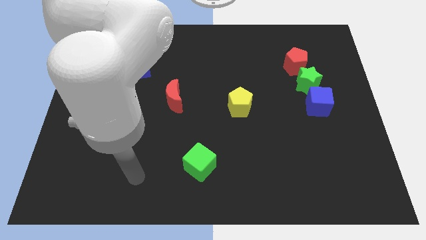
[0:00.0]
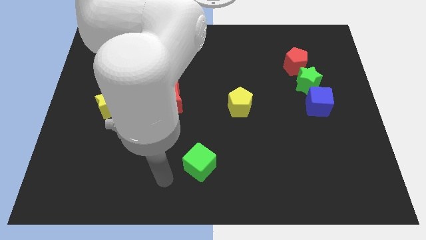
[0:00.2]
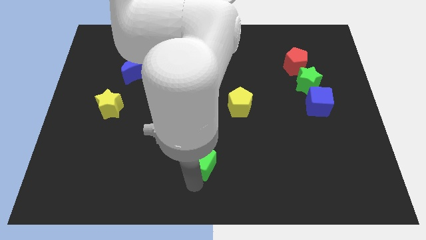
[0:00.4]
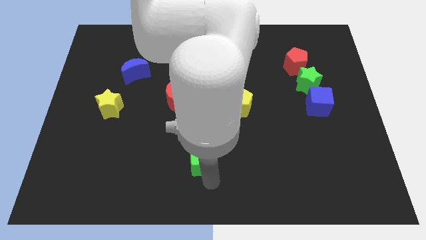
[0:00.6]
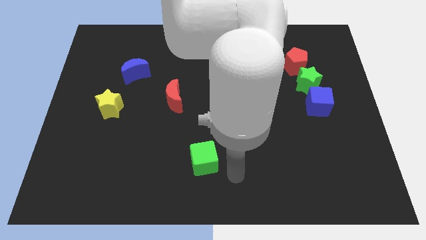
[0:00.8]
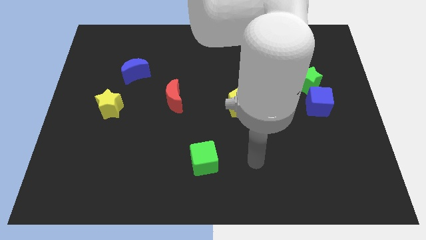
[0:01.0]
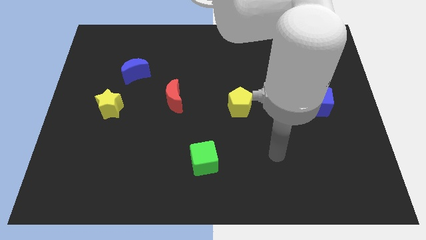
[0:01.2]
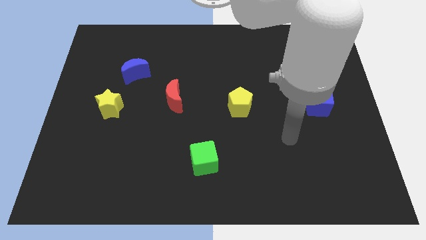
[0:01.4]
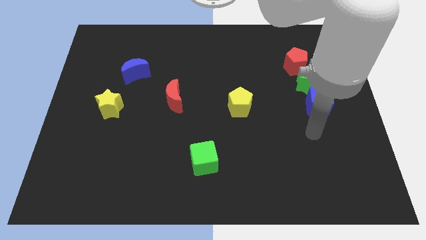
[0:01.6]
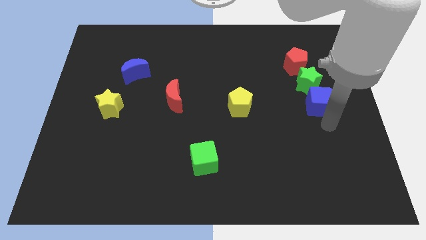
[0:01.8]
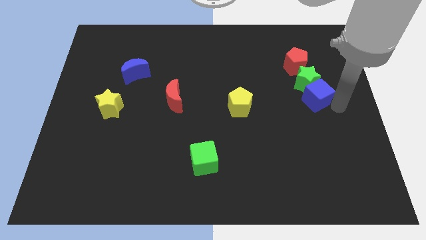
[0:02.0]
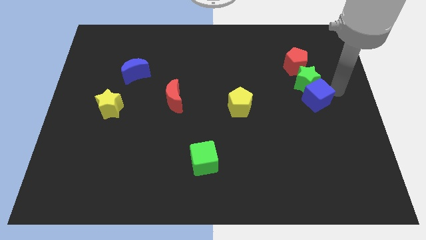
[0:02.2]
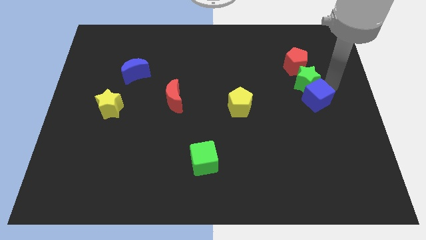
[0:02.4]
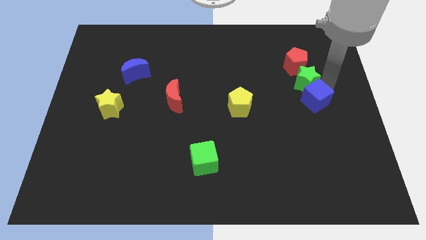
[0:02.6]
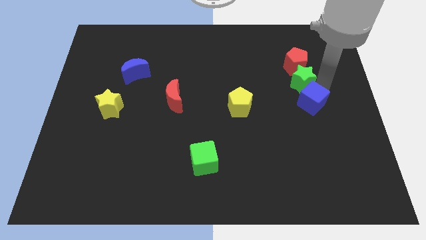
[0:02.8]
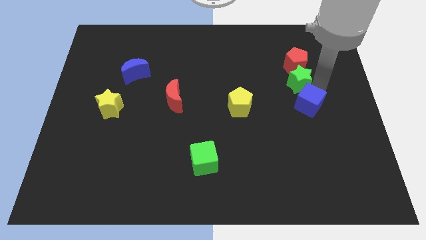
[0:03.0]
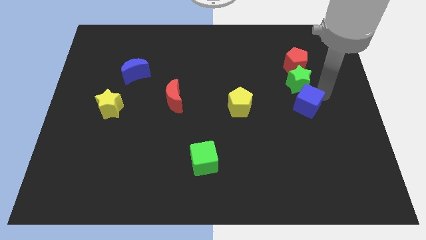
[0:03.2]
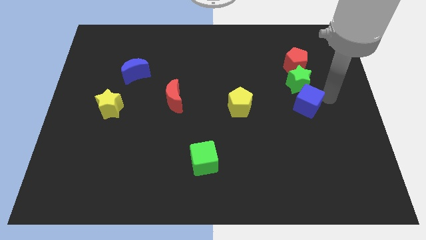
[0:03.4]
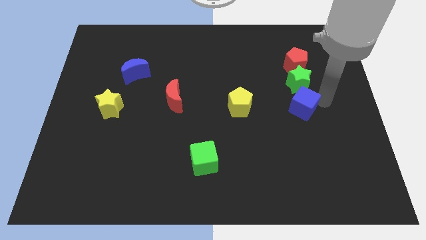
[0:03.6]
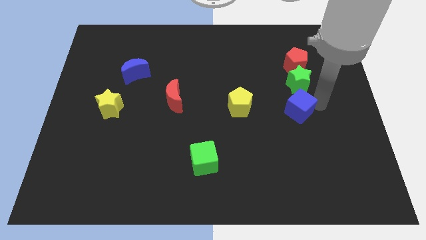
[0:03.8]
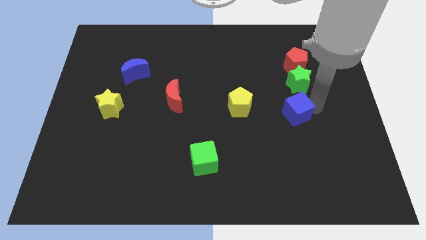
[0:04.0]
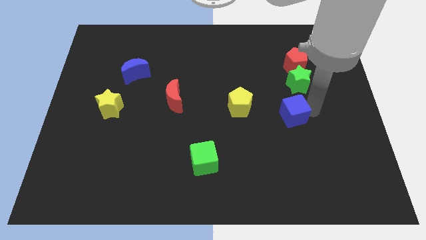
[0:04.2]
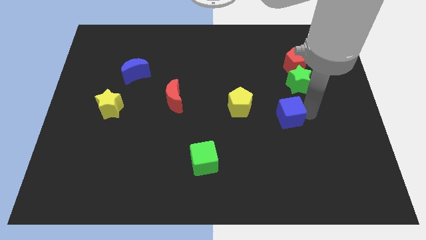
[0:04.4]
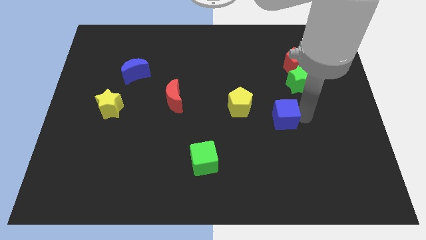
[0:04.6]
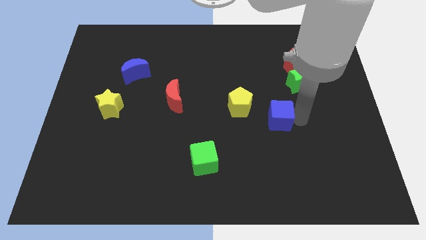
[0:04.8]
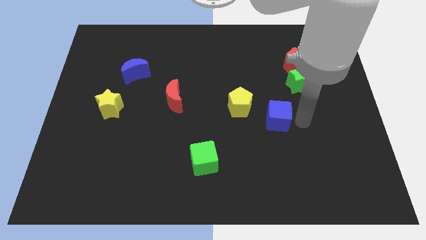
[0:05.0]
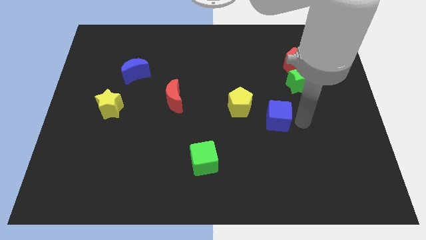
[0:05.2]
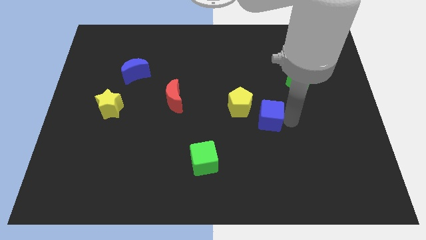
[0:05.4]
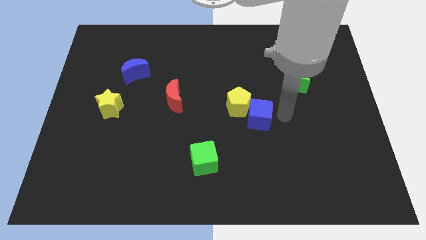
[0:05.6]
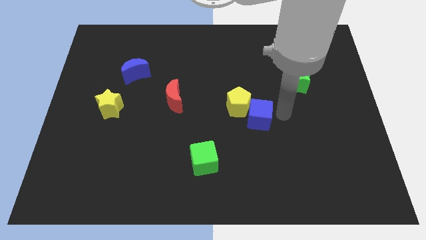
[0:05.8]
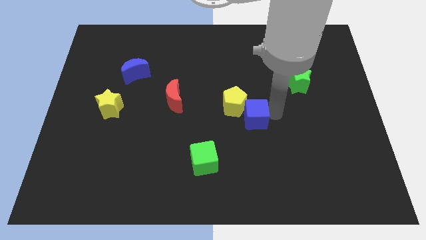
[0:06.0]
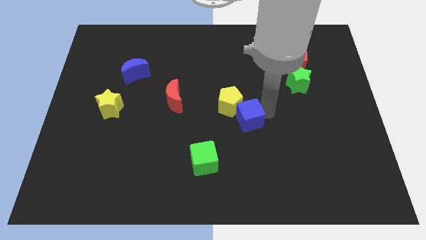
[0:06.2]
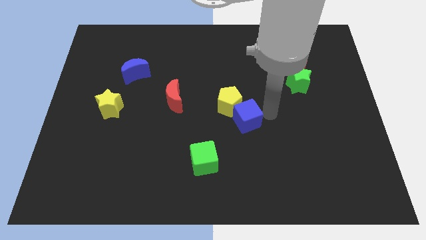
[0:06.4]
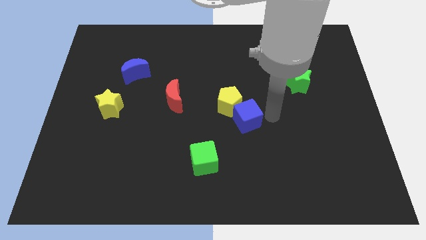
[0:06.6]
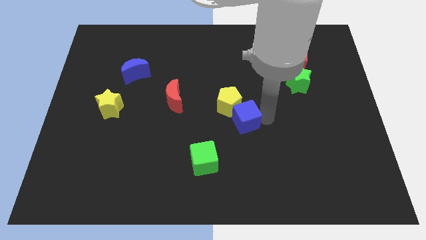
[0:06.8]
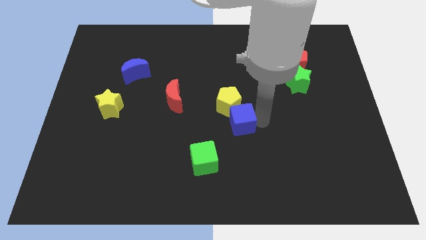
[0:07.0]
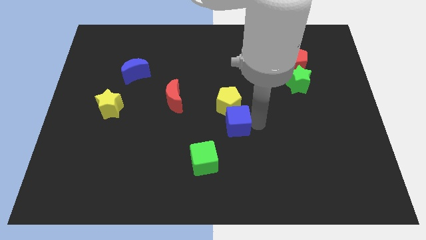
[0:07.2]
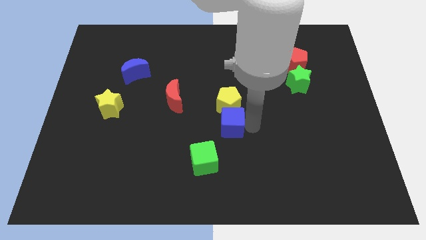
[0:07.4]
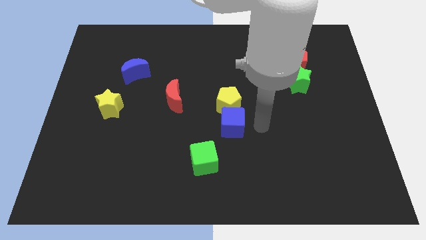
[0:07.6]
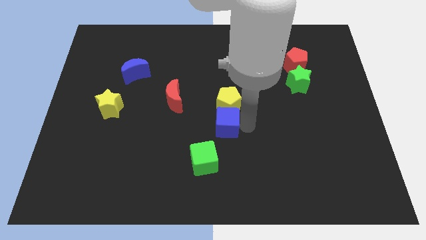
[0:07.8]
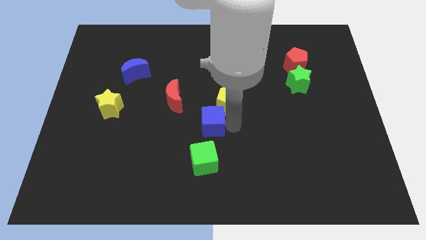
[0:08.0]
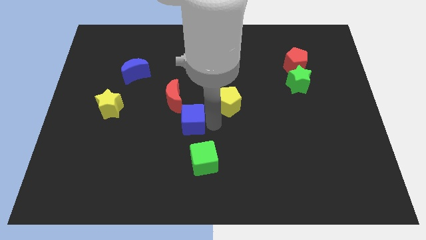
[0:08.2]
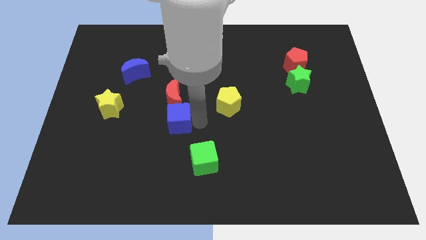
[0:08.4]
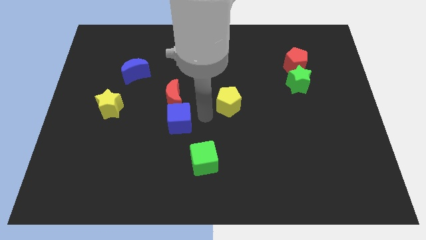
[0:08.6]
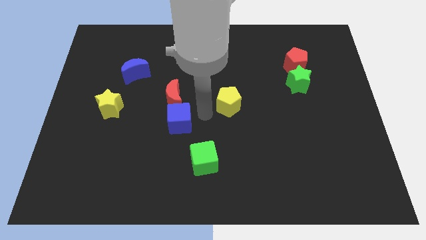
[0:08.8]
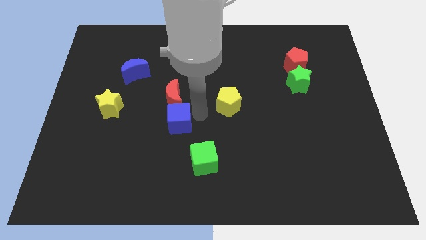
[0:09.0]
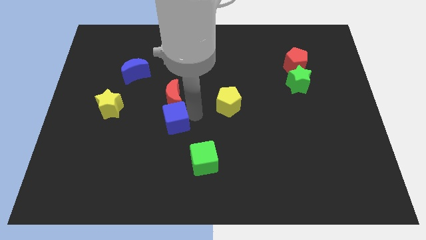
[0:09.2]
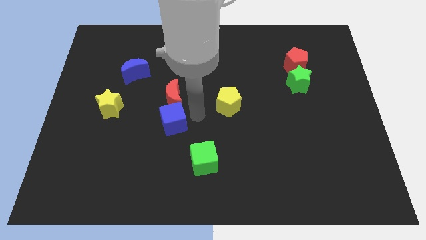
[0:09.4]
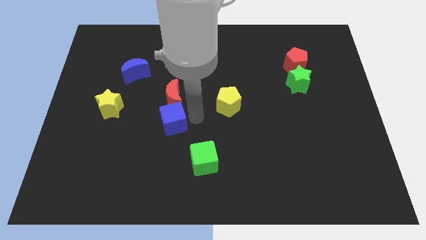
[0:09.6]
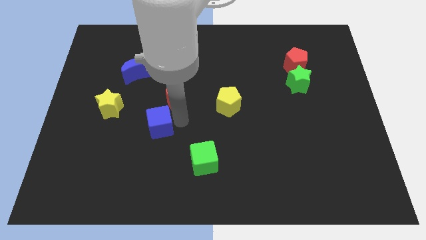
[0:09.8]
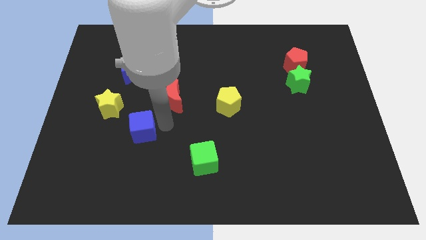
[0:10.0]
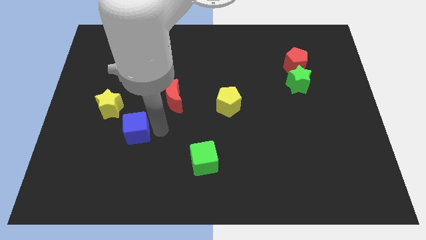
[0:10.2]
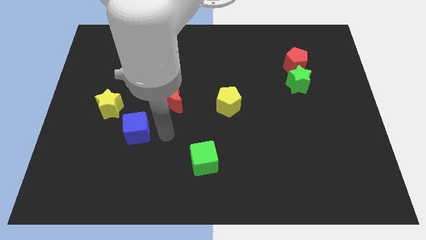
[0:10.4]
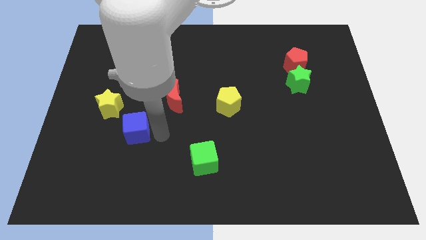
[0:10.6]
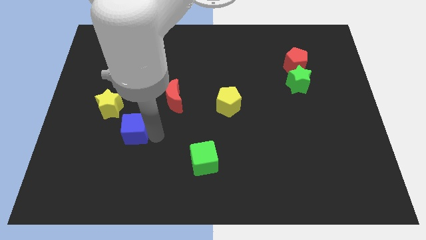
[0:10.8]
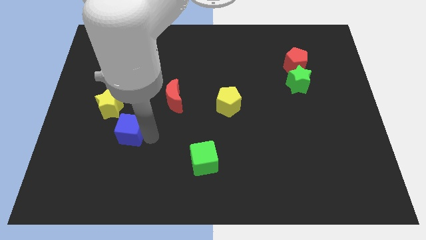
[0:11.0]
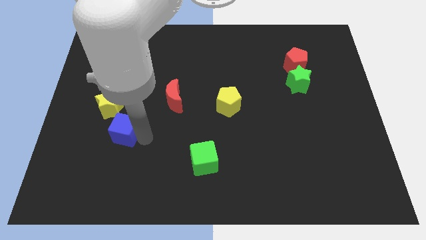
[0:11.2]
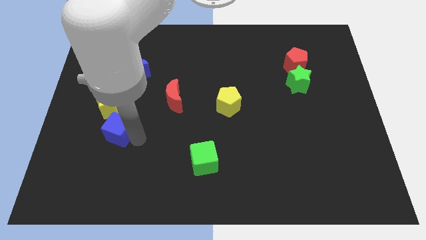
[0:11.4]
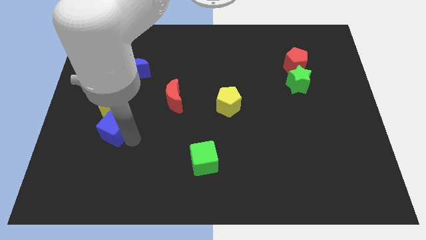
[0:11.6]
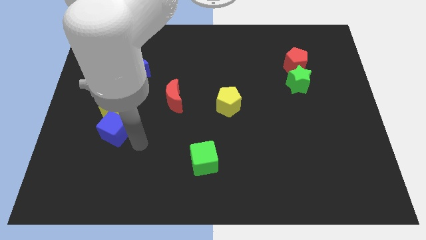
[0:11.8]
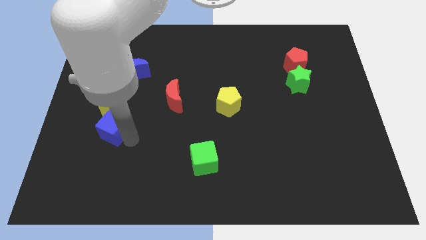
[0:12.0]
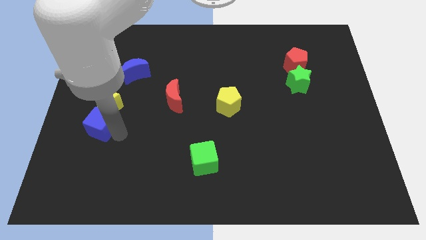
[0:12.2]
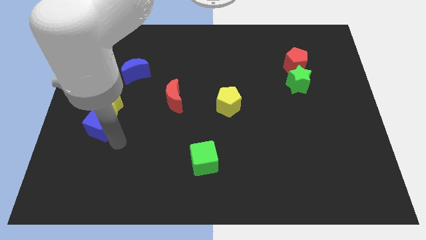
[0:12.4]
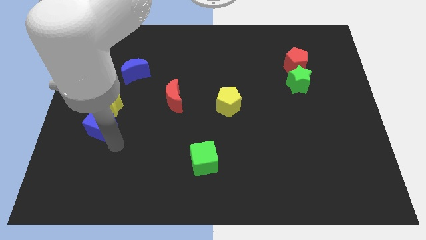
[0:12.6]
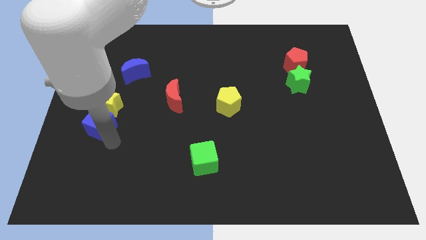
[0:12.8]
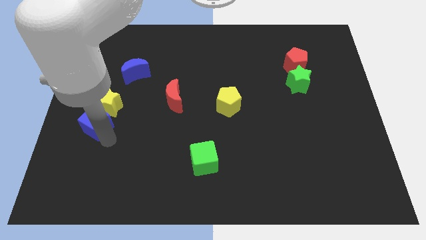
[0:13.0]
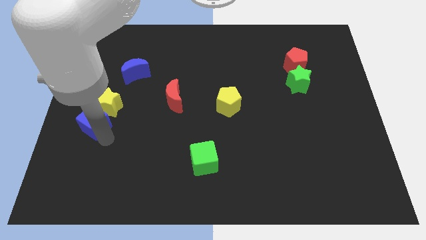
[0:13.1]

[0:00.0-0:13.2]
put the blue cube to the left side
